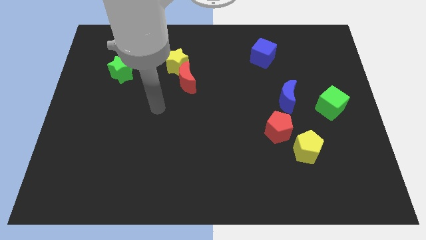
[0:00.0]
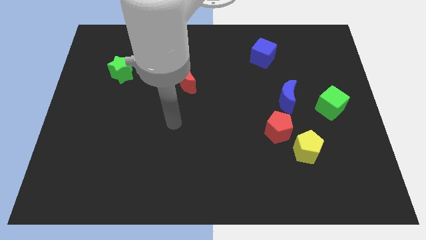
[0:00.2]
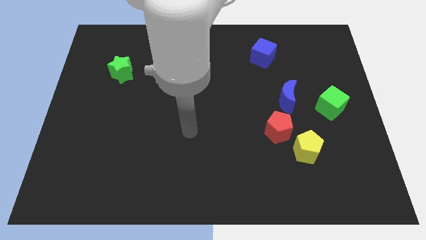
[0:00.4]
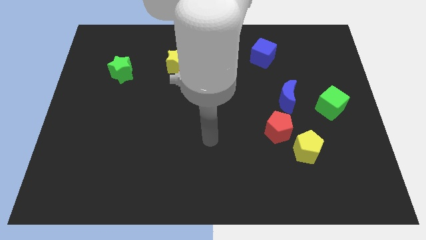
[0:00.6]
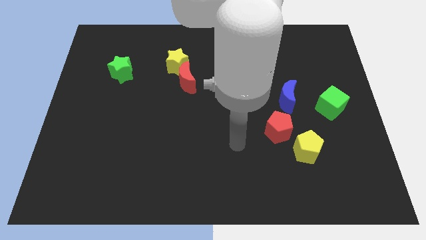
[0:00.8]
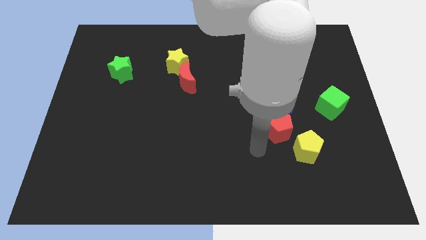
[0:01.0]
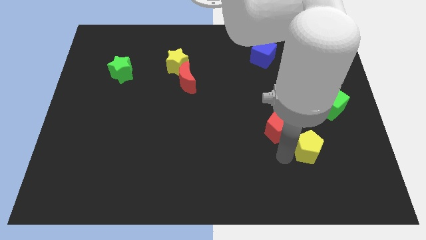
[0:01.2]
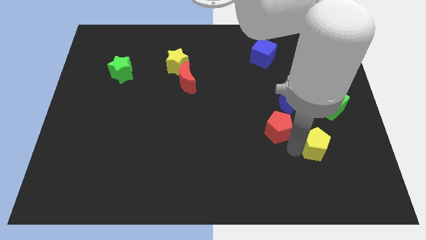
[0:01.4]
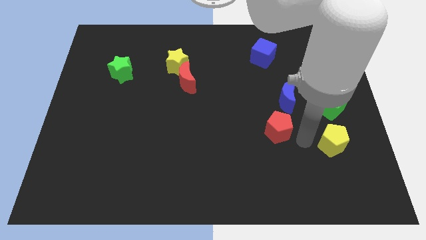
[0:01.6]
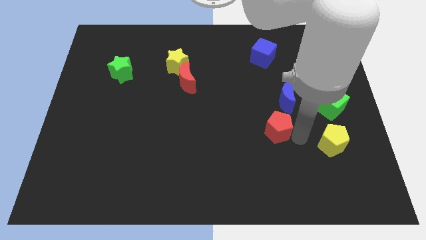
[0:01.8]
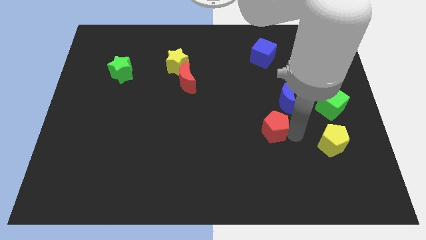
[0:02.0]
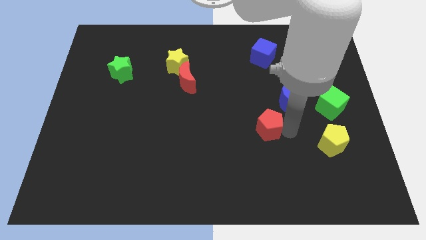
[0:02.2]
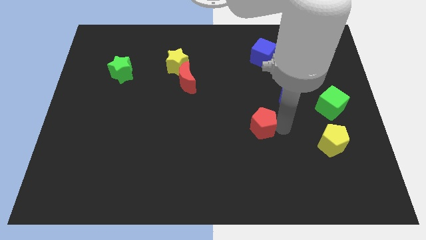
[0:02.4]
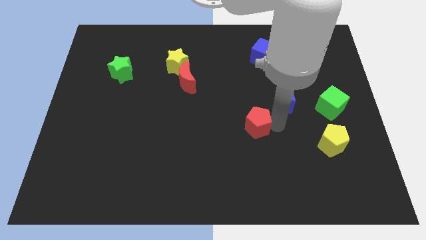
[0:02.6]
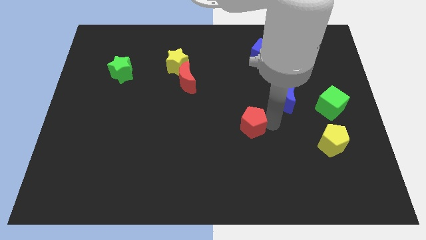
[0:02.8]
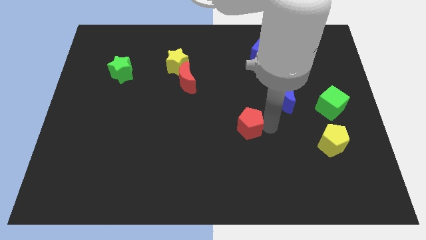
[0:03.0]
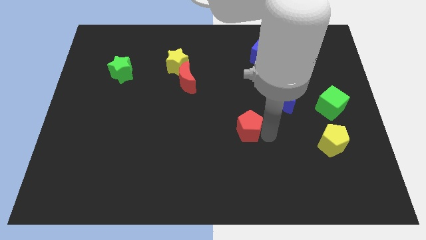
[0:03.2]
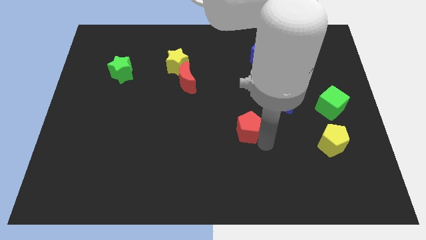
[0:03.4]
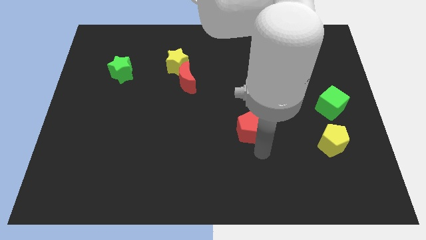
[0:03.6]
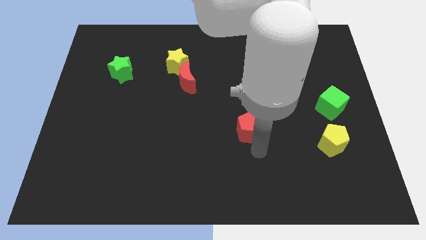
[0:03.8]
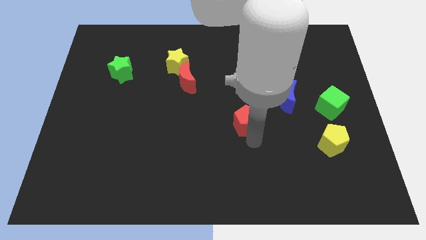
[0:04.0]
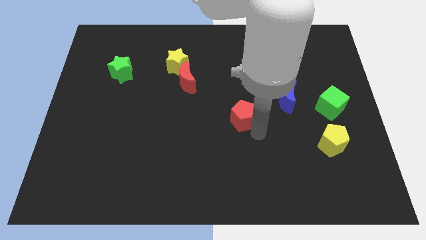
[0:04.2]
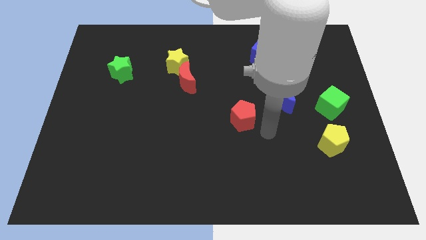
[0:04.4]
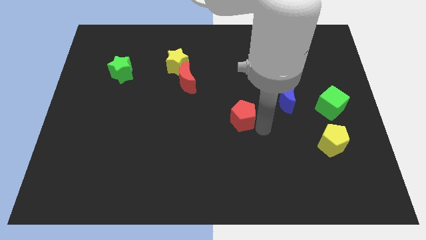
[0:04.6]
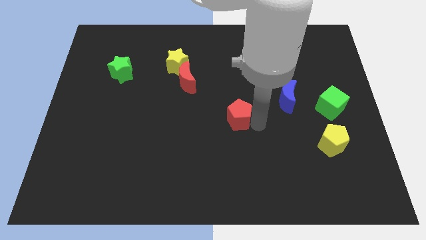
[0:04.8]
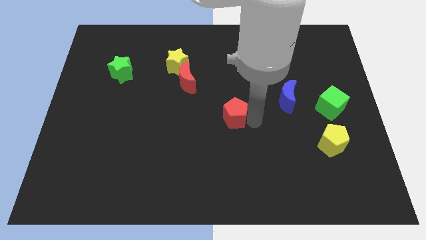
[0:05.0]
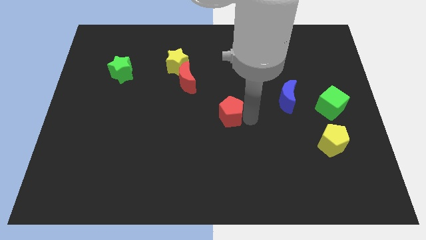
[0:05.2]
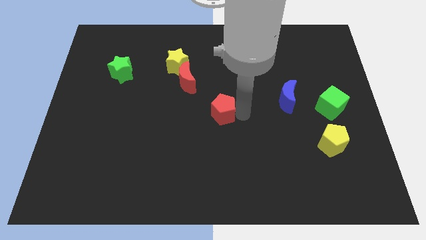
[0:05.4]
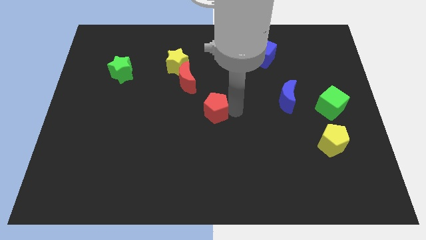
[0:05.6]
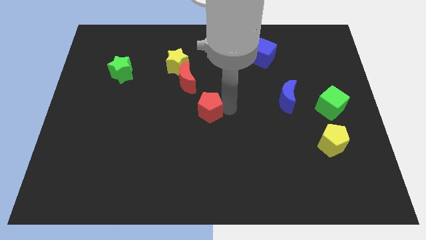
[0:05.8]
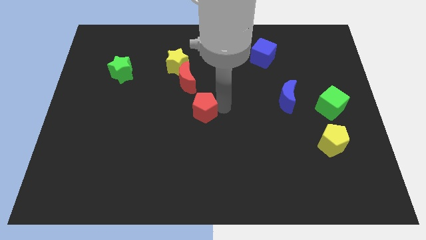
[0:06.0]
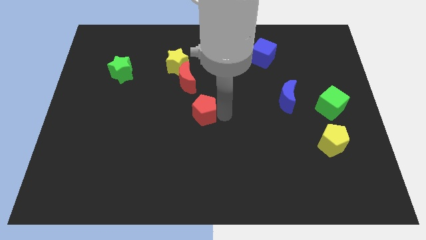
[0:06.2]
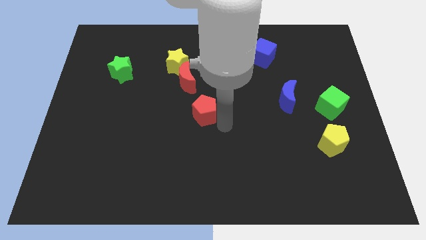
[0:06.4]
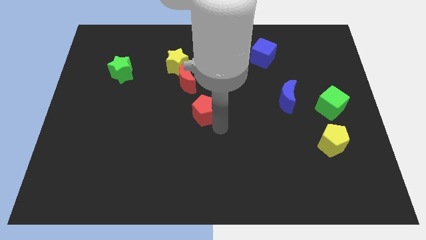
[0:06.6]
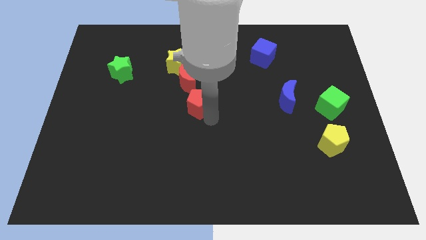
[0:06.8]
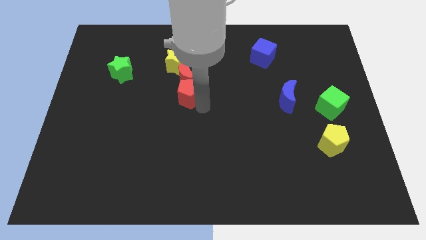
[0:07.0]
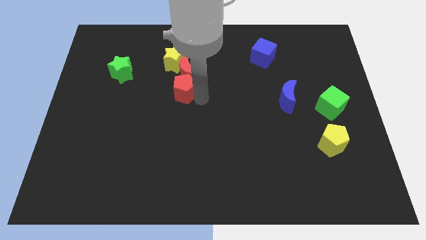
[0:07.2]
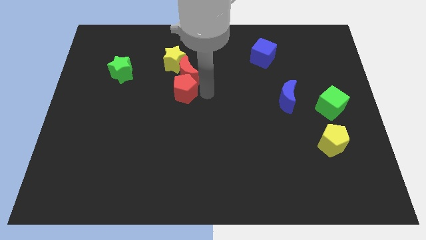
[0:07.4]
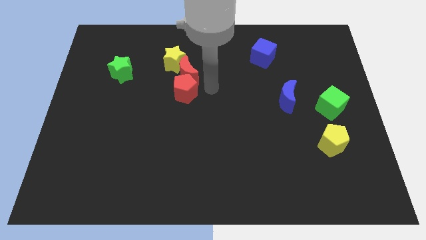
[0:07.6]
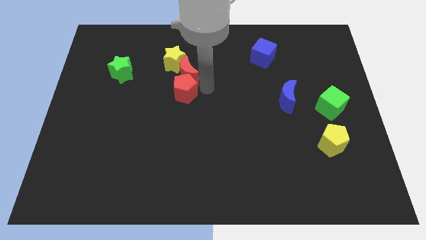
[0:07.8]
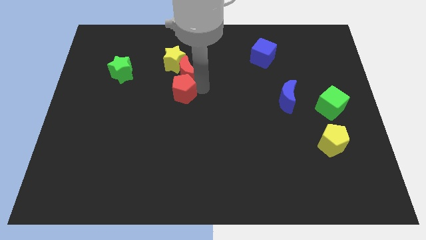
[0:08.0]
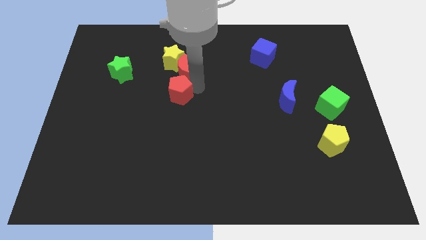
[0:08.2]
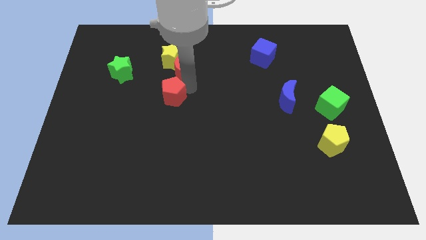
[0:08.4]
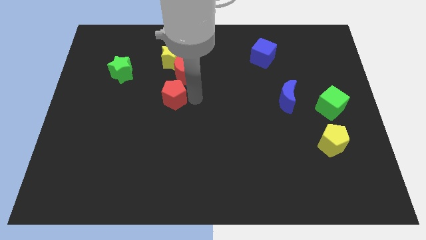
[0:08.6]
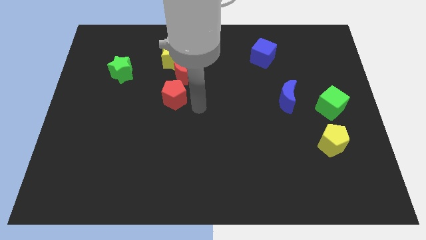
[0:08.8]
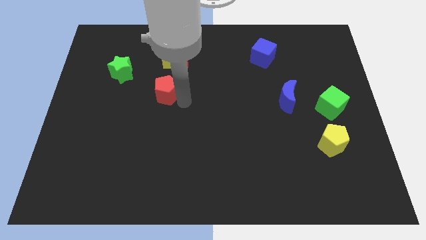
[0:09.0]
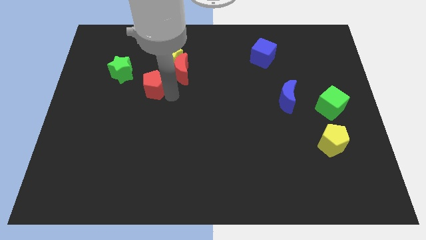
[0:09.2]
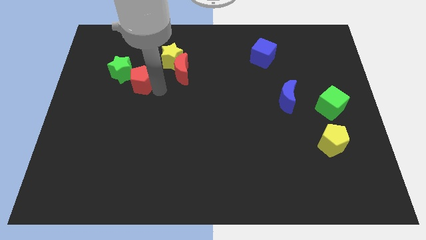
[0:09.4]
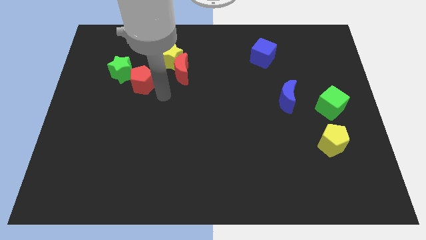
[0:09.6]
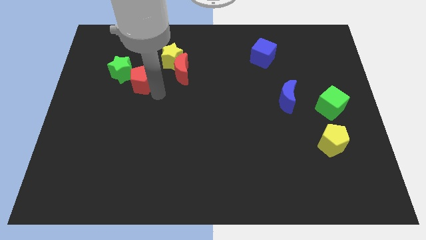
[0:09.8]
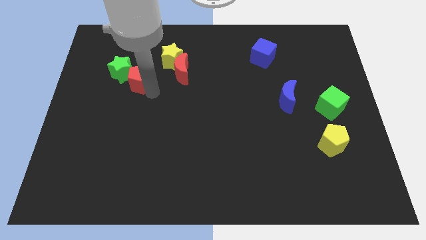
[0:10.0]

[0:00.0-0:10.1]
push the red pentagon towards the green star

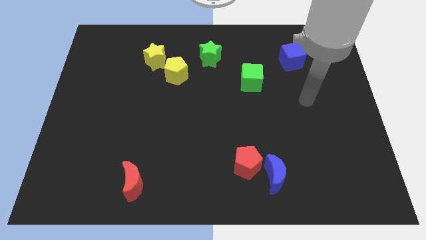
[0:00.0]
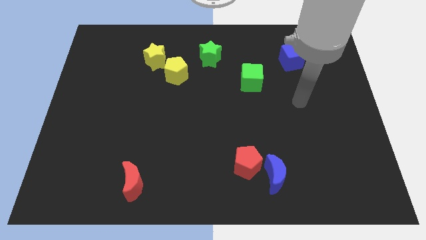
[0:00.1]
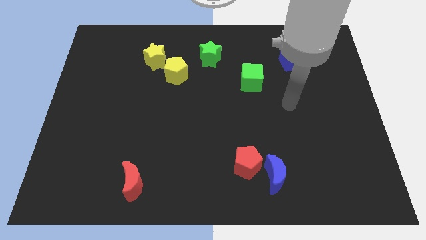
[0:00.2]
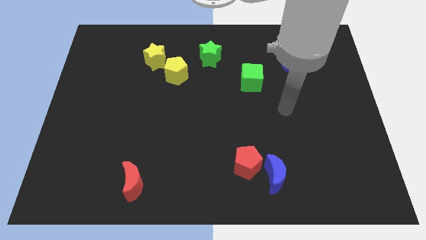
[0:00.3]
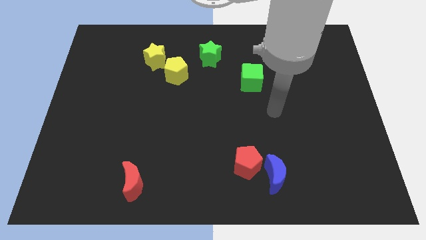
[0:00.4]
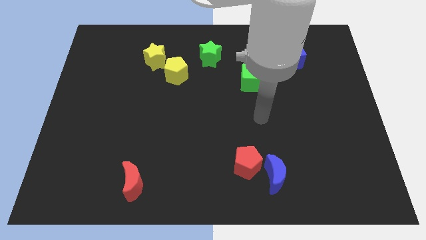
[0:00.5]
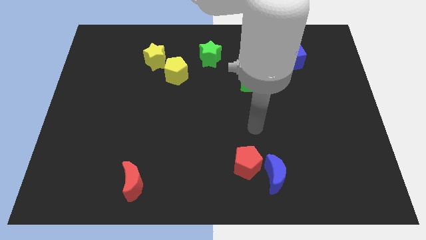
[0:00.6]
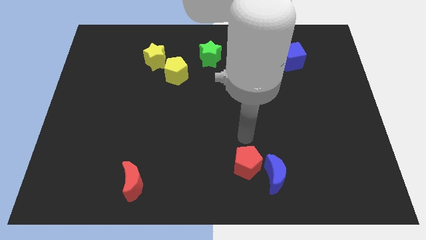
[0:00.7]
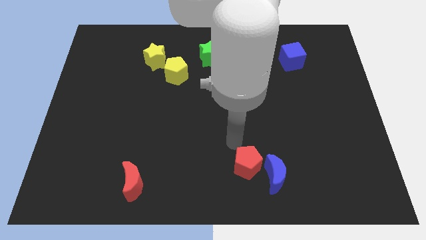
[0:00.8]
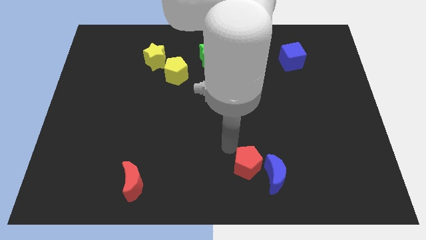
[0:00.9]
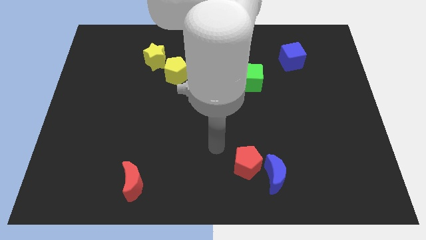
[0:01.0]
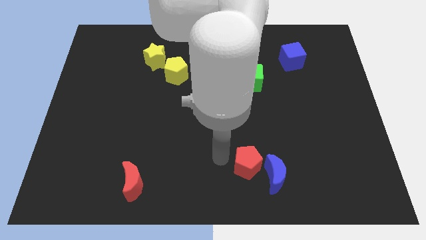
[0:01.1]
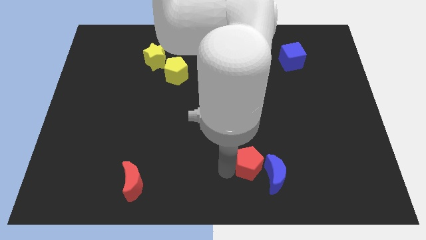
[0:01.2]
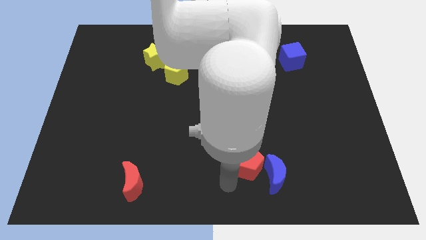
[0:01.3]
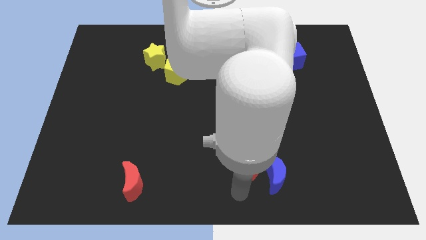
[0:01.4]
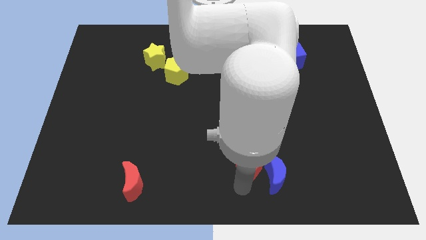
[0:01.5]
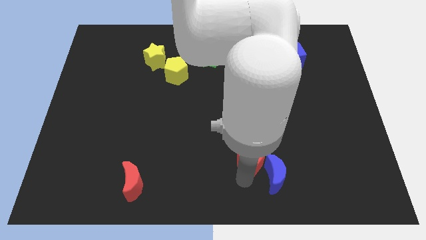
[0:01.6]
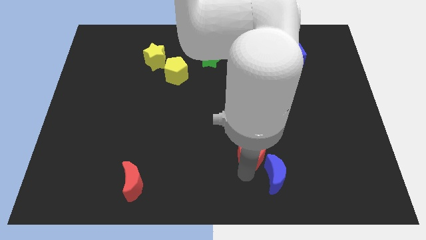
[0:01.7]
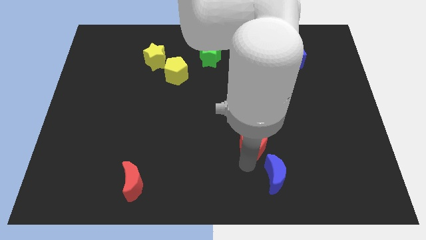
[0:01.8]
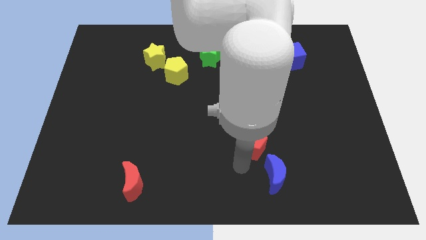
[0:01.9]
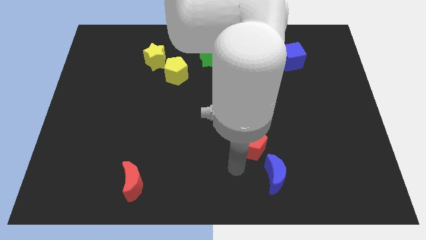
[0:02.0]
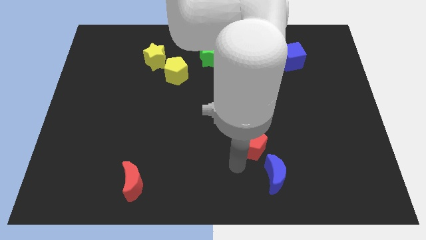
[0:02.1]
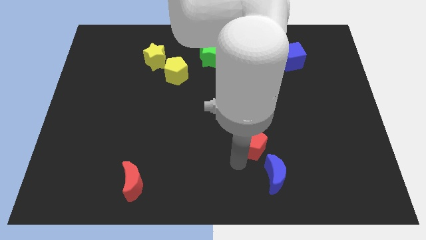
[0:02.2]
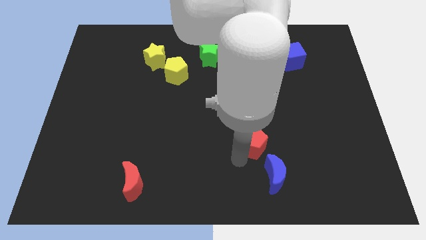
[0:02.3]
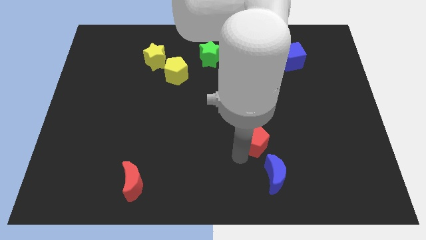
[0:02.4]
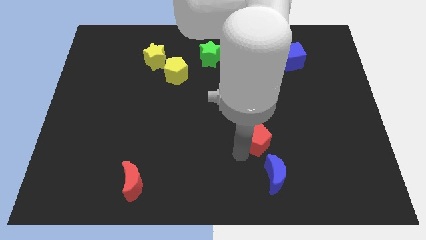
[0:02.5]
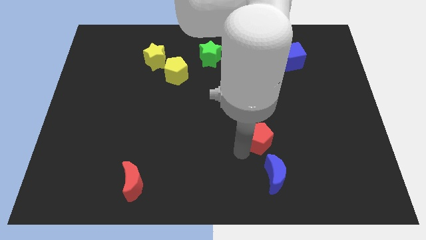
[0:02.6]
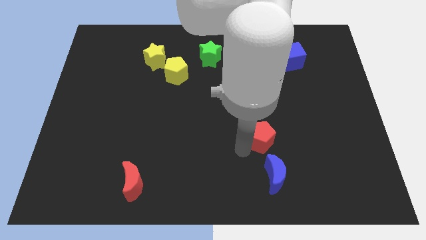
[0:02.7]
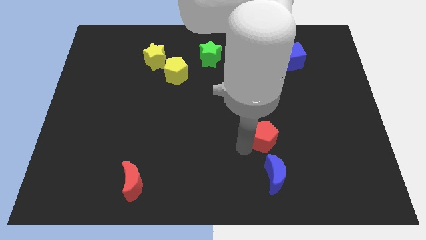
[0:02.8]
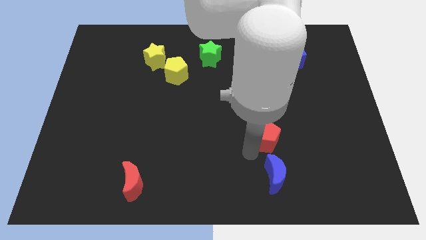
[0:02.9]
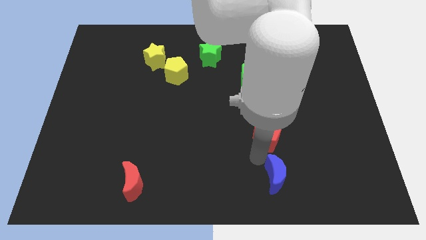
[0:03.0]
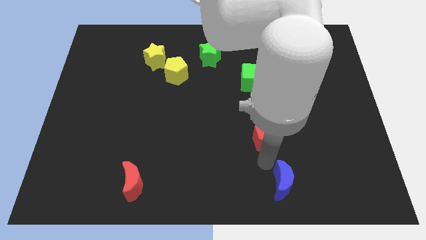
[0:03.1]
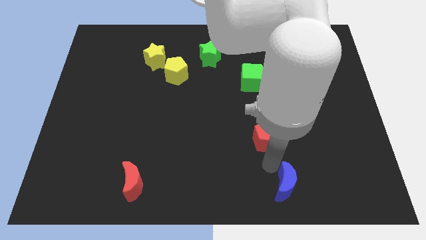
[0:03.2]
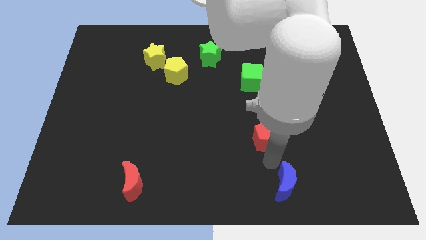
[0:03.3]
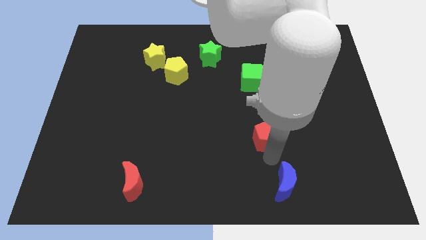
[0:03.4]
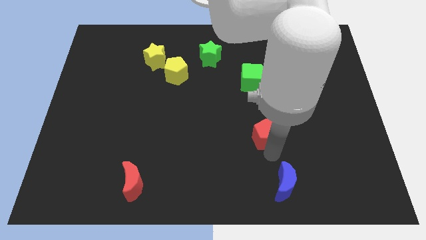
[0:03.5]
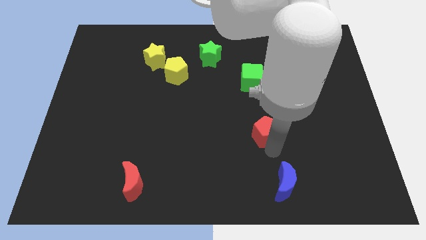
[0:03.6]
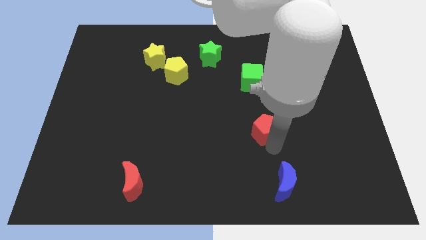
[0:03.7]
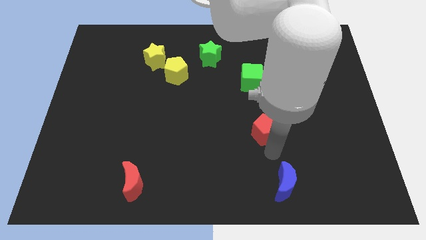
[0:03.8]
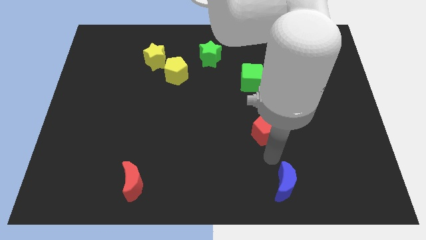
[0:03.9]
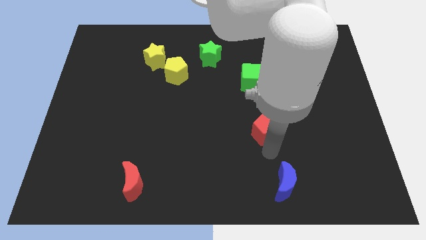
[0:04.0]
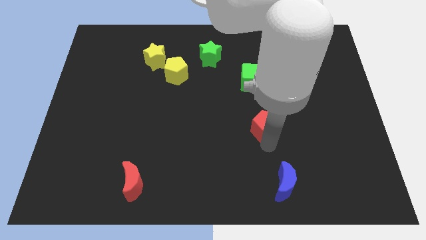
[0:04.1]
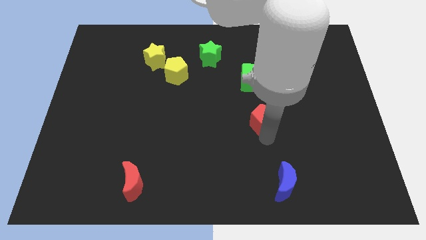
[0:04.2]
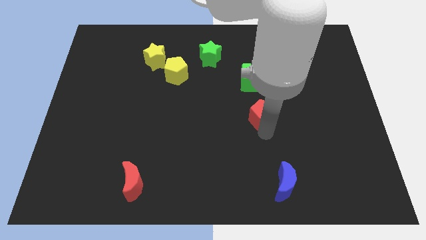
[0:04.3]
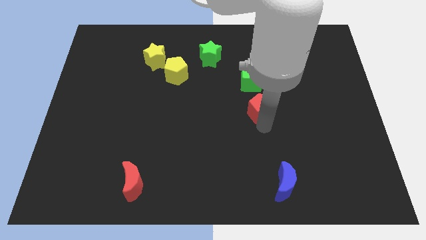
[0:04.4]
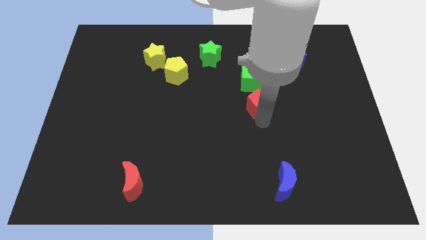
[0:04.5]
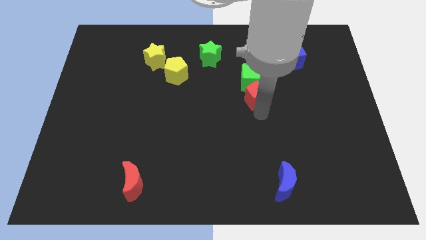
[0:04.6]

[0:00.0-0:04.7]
put the red pentagon next to the green cube
